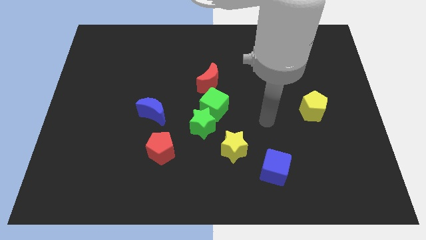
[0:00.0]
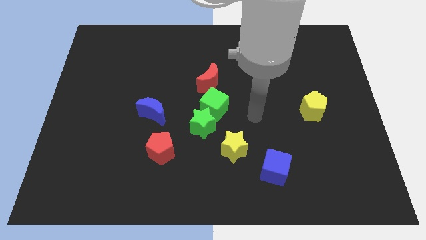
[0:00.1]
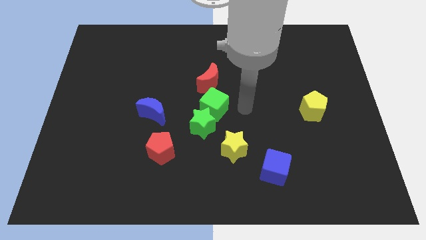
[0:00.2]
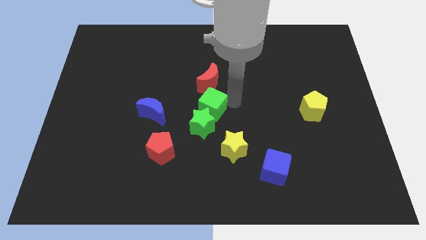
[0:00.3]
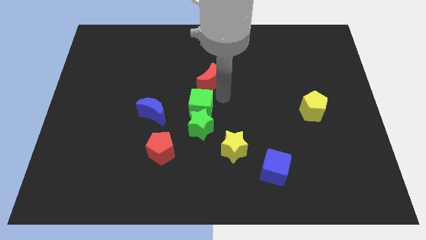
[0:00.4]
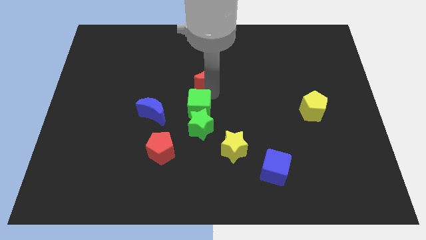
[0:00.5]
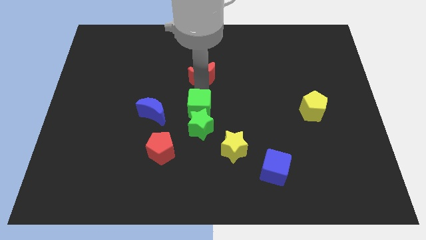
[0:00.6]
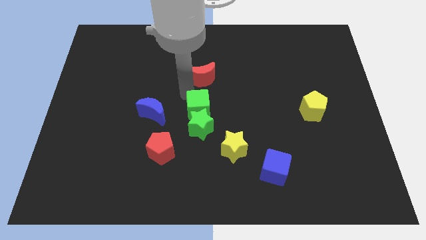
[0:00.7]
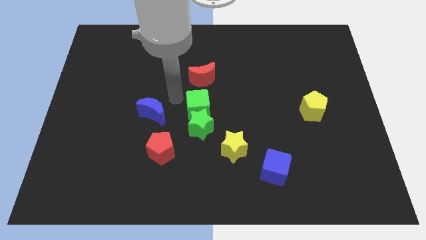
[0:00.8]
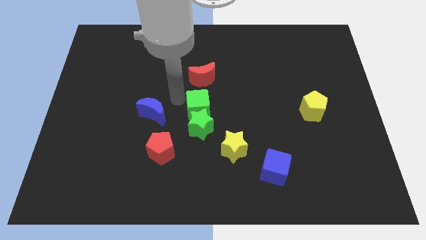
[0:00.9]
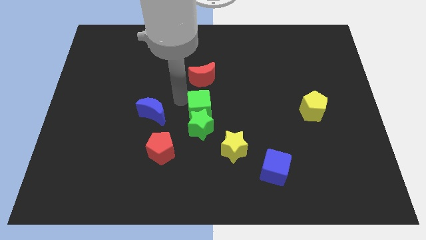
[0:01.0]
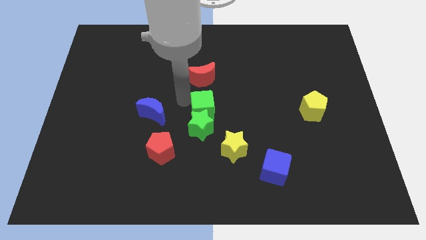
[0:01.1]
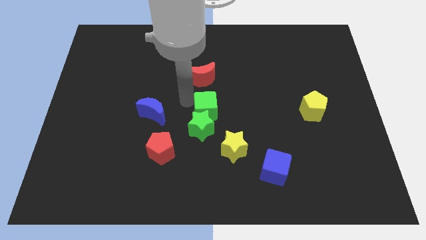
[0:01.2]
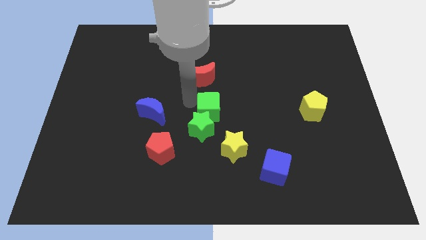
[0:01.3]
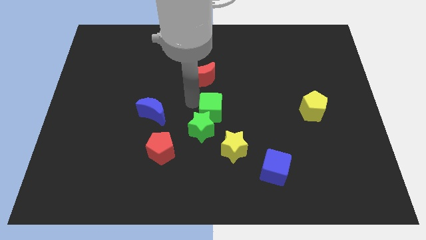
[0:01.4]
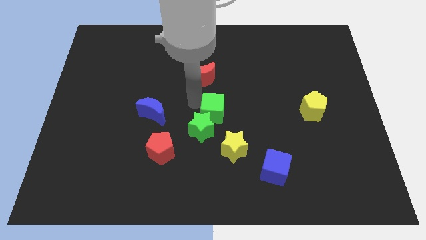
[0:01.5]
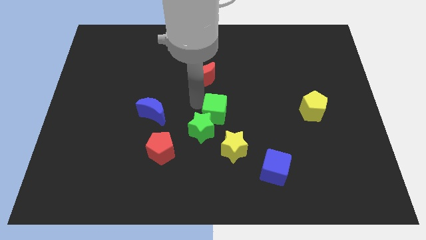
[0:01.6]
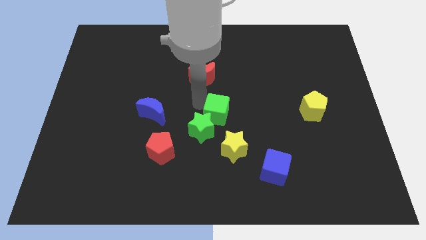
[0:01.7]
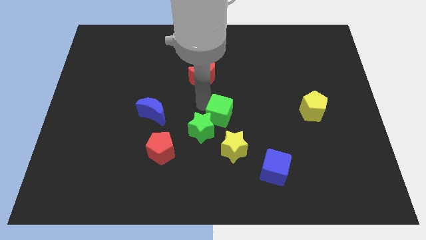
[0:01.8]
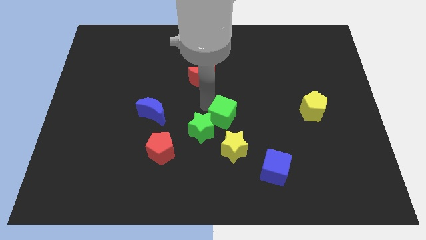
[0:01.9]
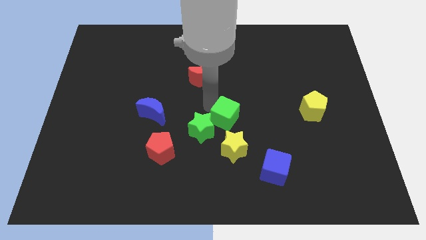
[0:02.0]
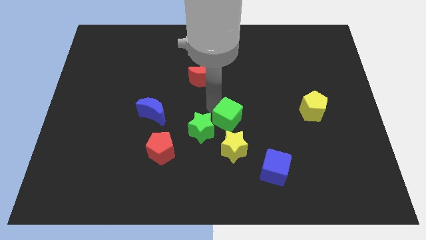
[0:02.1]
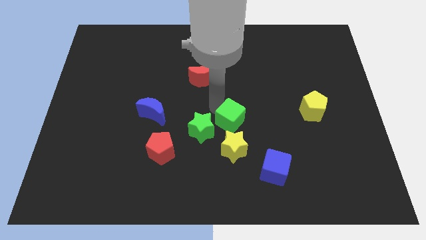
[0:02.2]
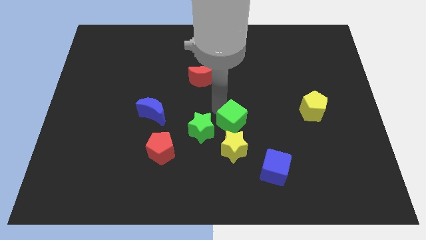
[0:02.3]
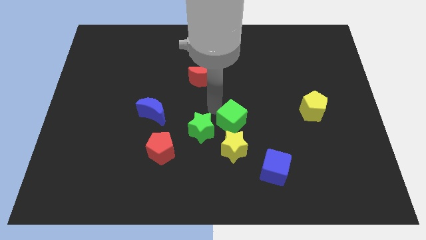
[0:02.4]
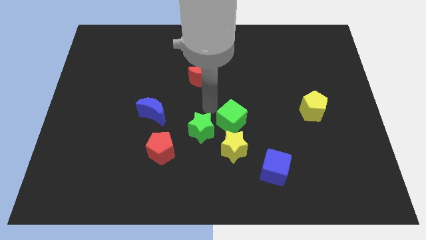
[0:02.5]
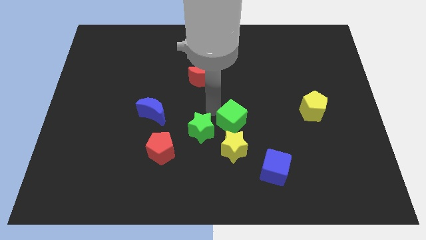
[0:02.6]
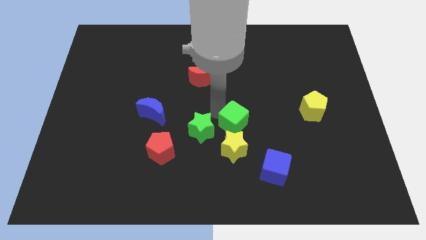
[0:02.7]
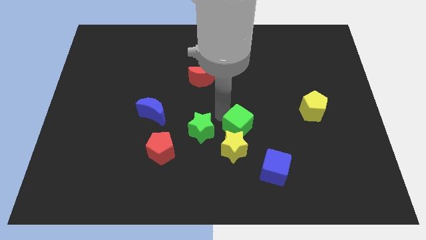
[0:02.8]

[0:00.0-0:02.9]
pull the green cube apart from the green star and red moon

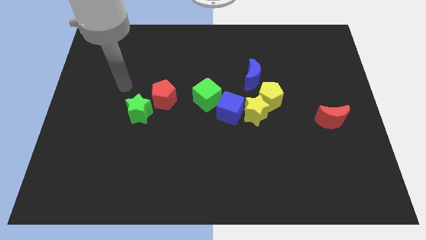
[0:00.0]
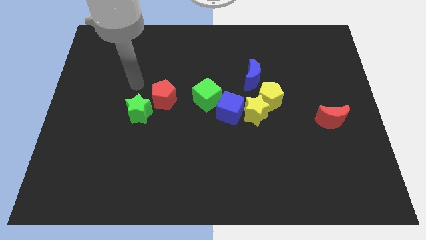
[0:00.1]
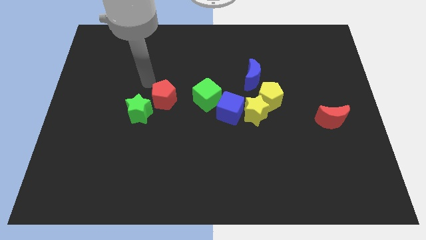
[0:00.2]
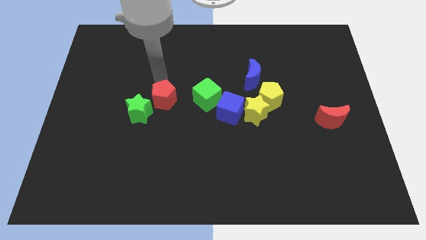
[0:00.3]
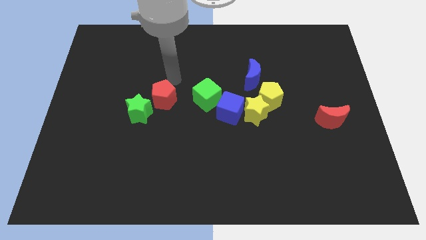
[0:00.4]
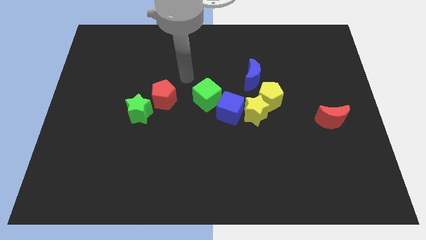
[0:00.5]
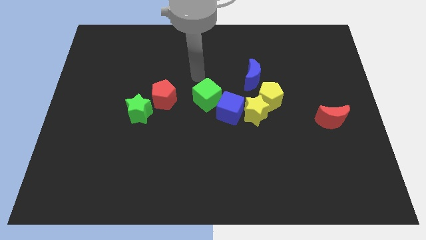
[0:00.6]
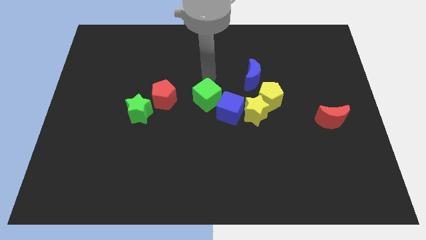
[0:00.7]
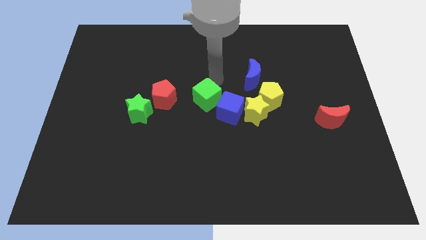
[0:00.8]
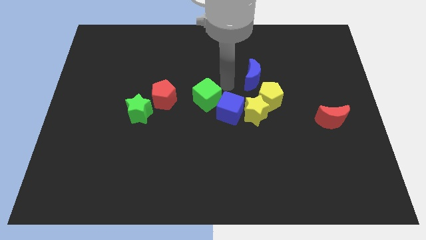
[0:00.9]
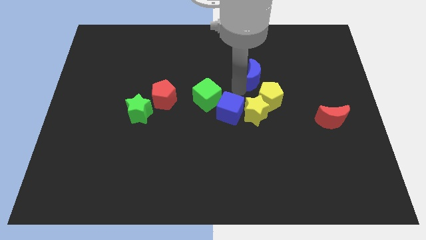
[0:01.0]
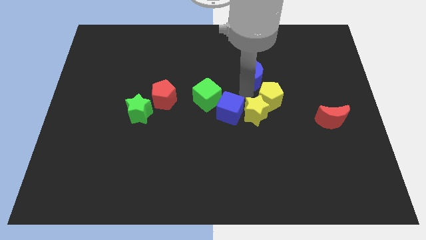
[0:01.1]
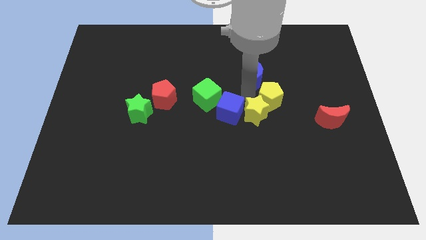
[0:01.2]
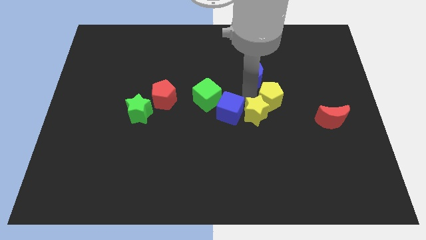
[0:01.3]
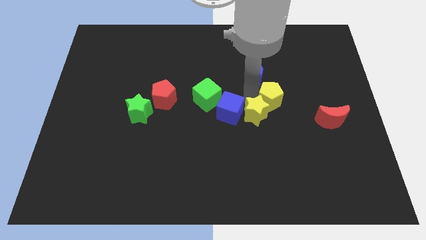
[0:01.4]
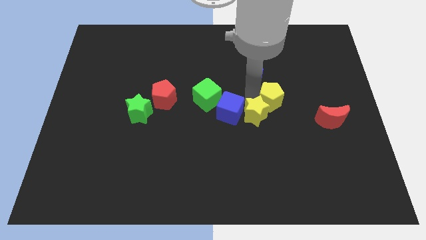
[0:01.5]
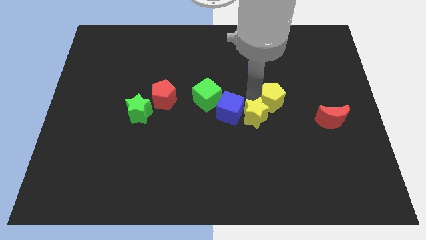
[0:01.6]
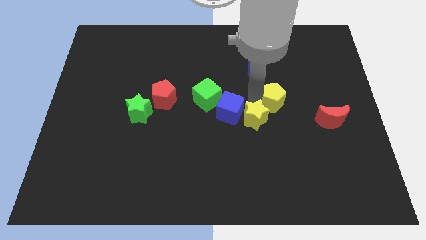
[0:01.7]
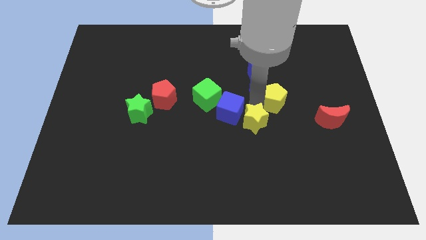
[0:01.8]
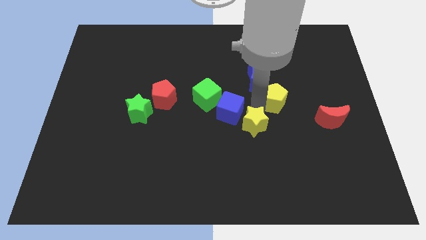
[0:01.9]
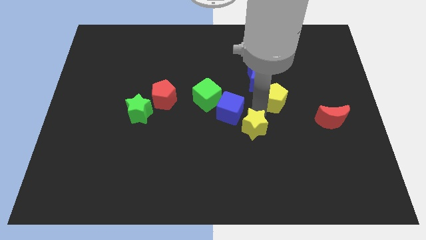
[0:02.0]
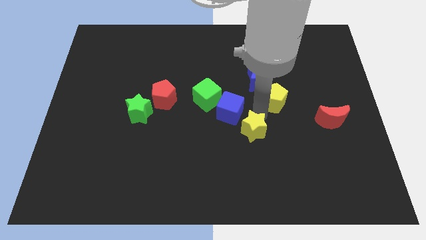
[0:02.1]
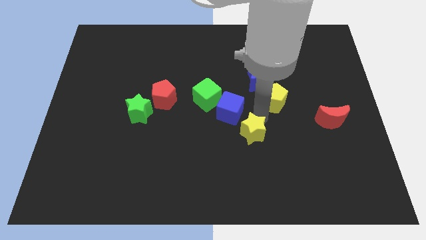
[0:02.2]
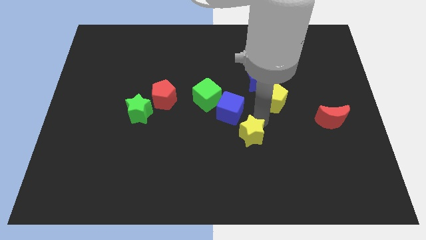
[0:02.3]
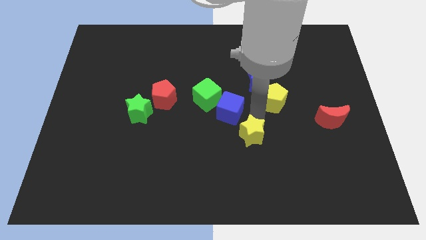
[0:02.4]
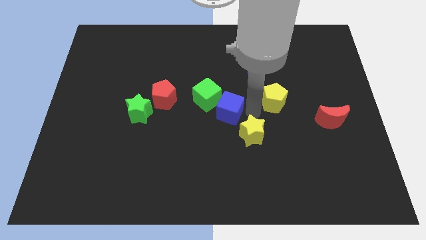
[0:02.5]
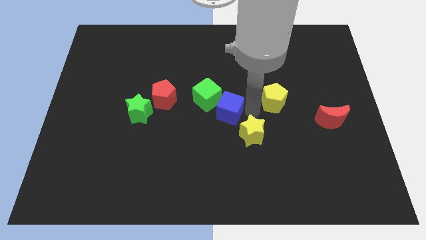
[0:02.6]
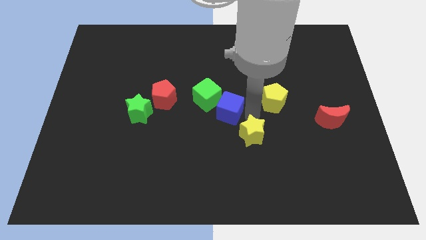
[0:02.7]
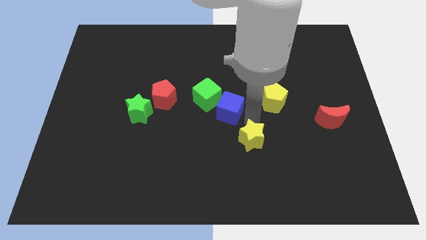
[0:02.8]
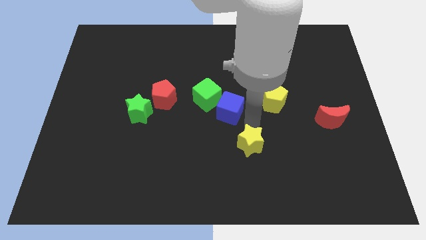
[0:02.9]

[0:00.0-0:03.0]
move the yellow star away from the blue cube and yellow pentagon

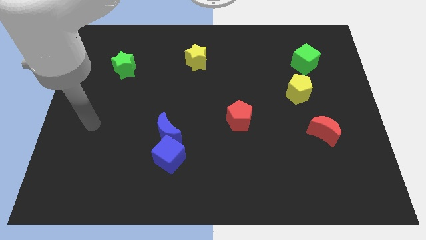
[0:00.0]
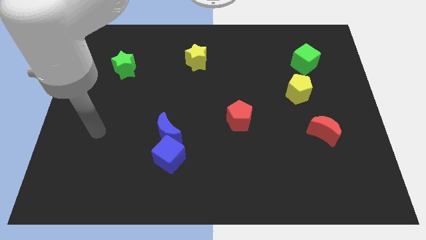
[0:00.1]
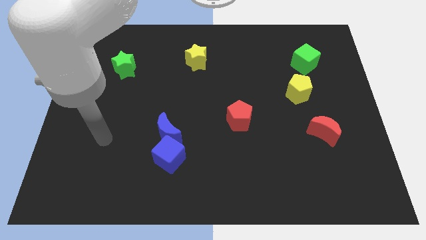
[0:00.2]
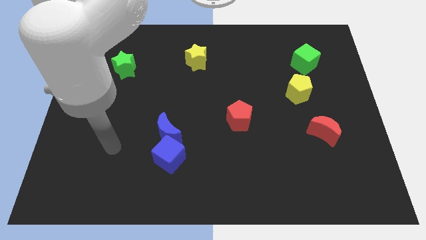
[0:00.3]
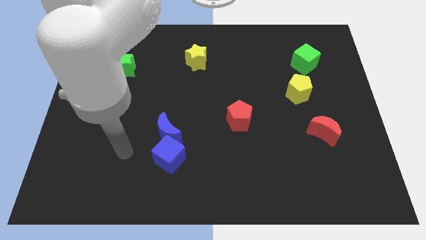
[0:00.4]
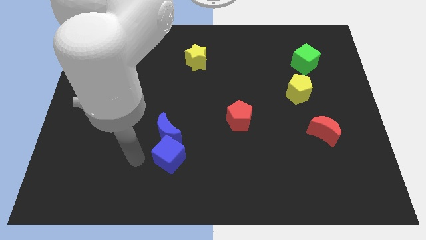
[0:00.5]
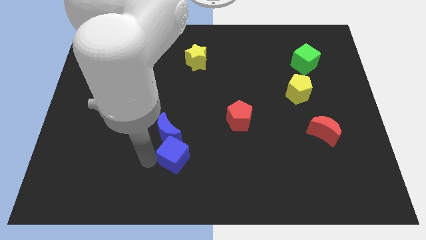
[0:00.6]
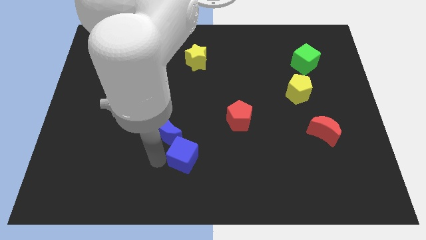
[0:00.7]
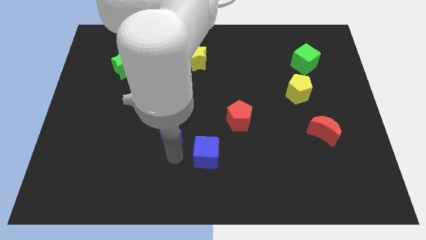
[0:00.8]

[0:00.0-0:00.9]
separate the blue moon from the blue cube

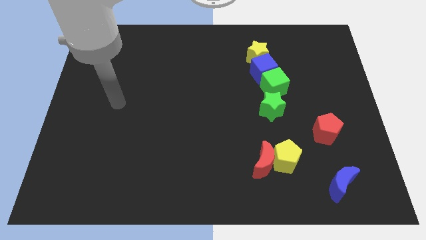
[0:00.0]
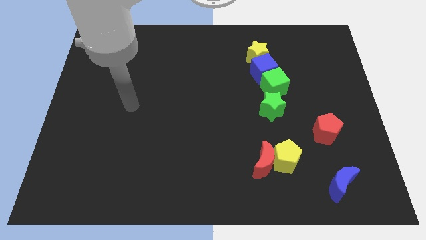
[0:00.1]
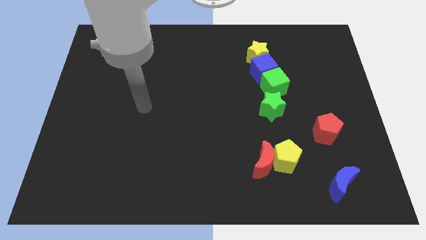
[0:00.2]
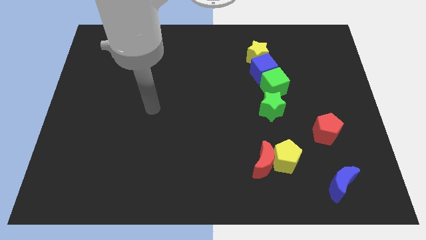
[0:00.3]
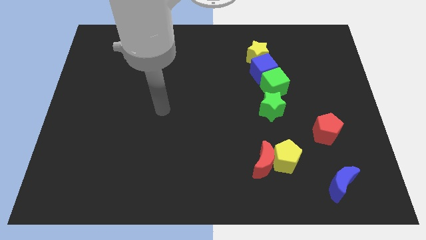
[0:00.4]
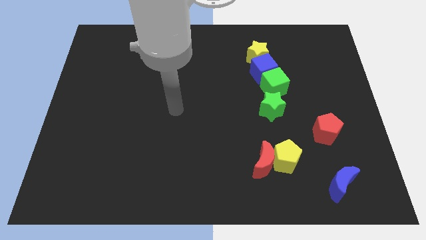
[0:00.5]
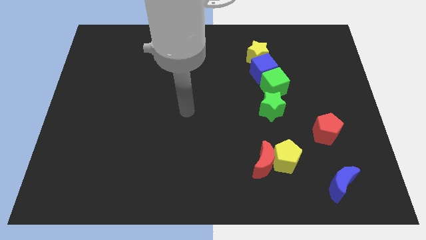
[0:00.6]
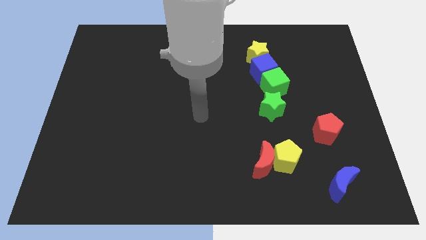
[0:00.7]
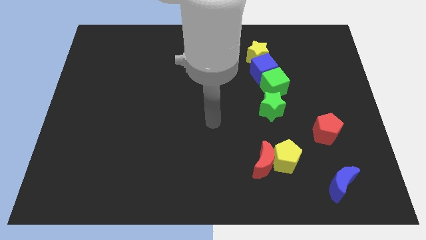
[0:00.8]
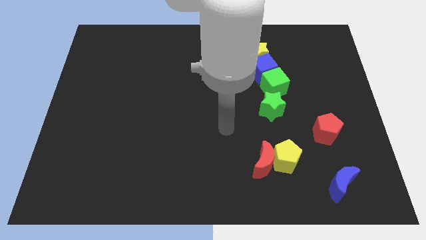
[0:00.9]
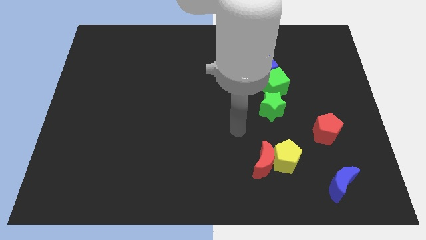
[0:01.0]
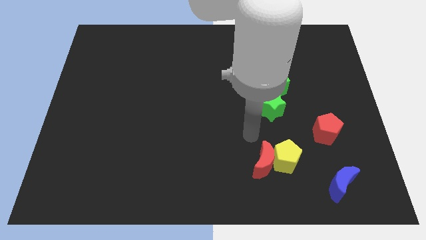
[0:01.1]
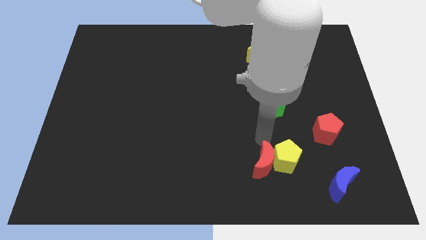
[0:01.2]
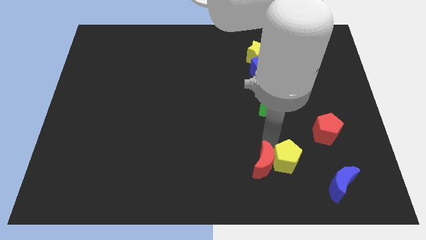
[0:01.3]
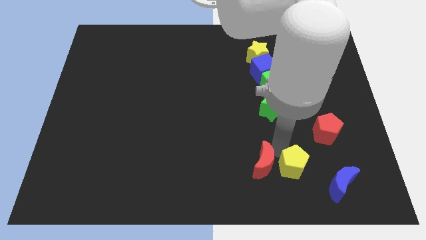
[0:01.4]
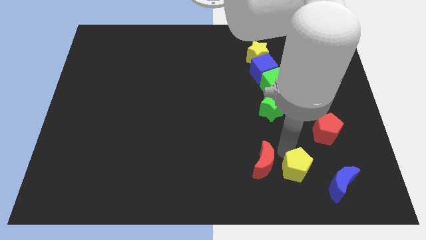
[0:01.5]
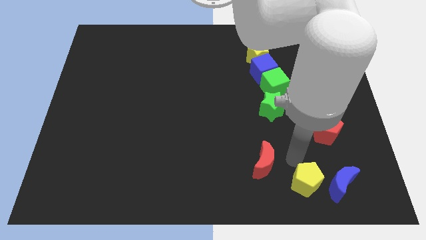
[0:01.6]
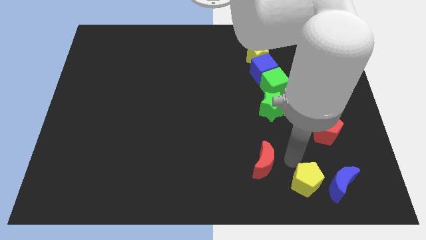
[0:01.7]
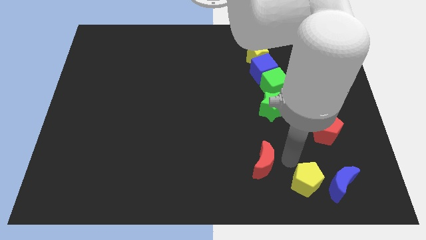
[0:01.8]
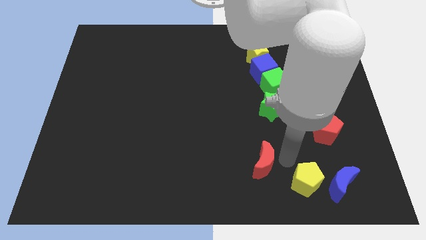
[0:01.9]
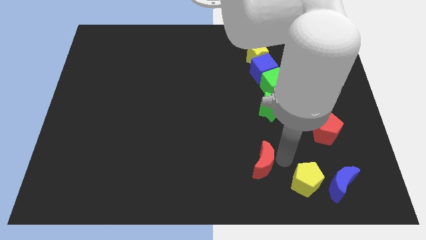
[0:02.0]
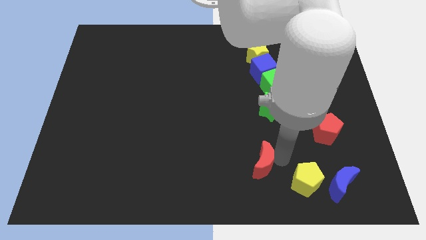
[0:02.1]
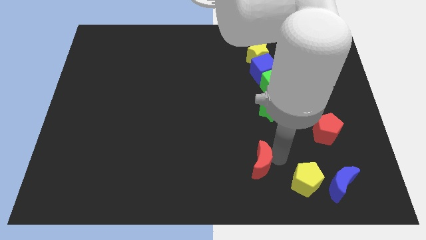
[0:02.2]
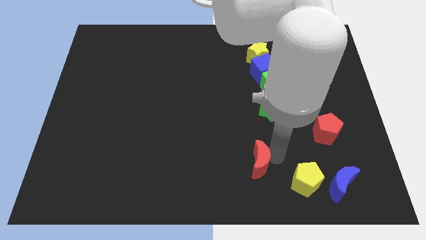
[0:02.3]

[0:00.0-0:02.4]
pull the red moon apart from the yellow pentagon
